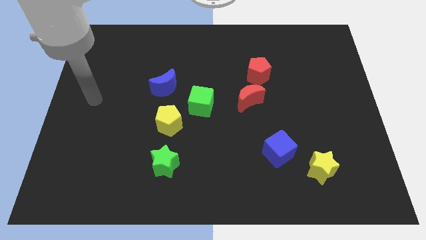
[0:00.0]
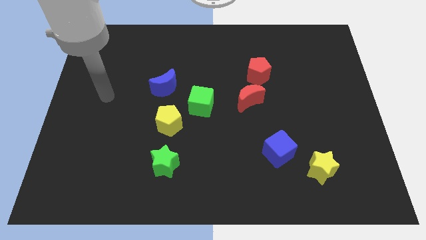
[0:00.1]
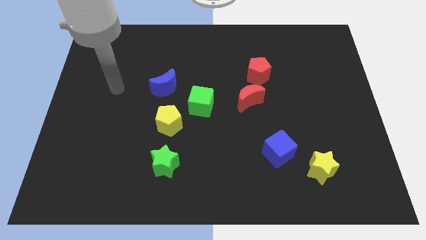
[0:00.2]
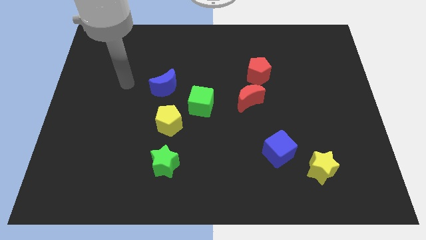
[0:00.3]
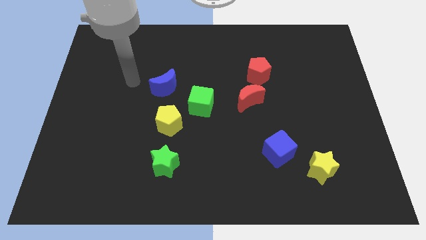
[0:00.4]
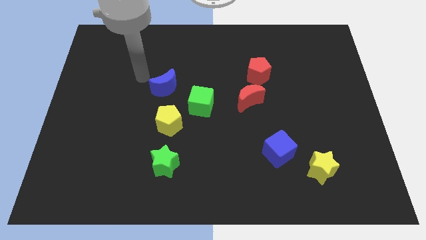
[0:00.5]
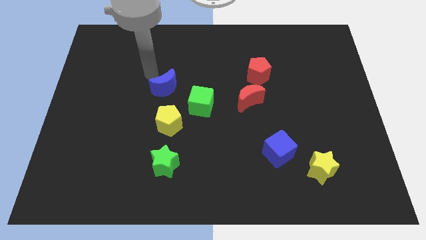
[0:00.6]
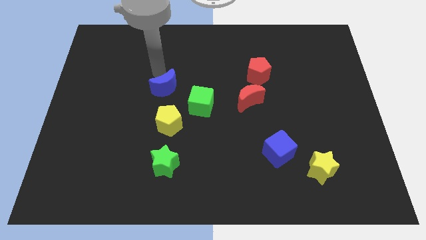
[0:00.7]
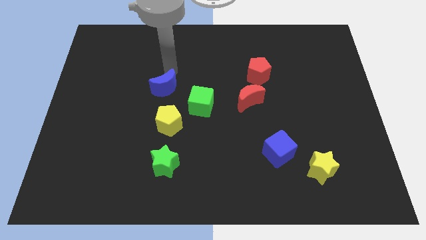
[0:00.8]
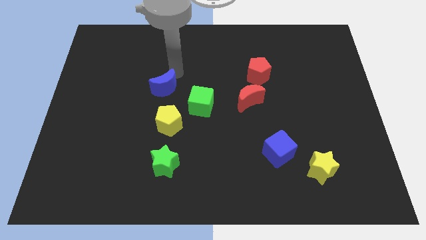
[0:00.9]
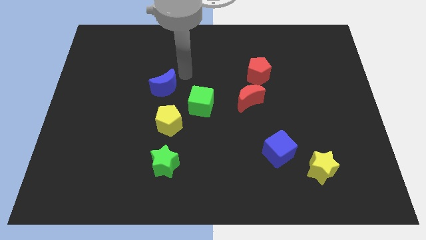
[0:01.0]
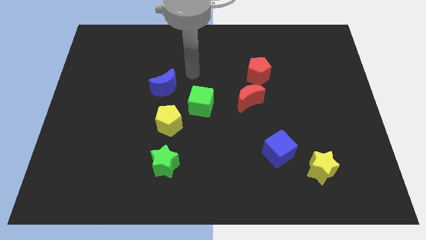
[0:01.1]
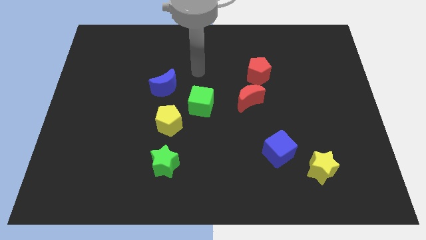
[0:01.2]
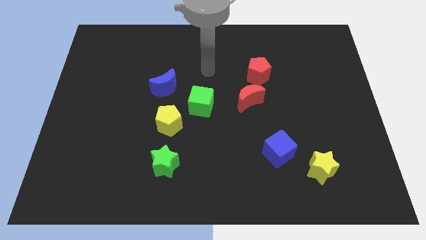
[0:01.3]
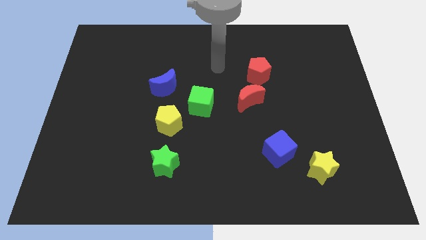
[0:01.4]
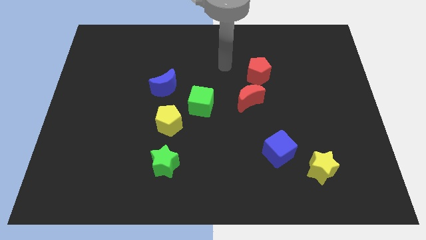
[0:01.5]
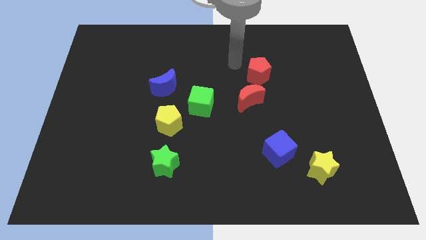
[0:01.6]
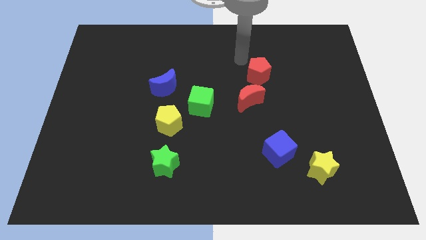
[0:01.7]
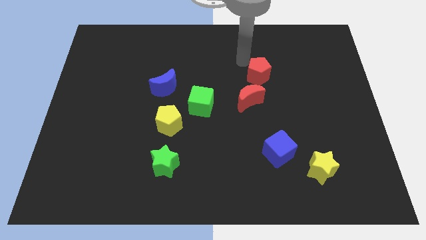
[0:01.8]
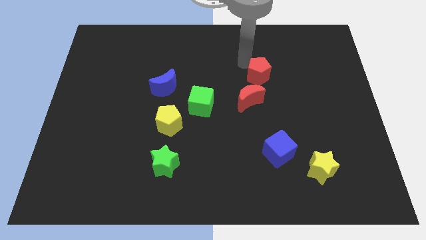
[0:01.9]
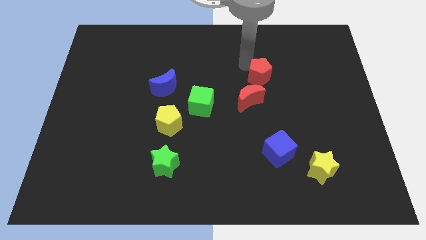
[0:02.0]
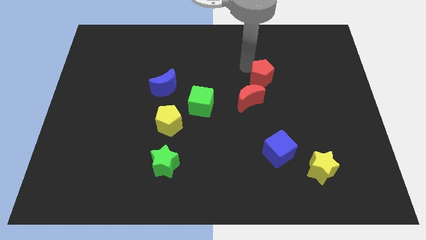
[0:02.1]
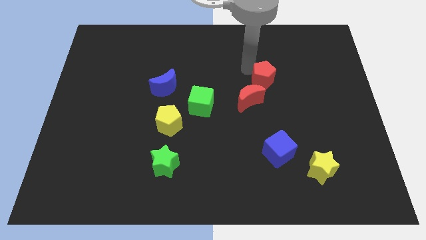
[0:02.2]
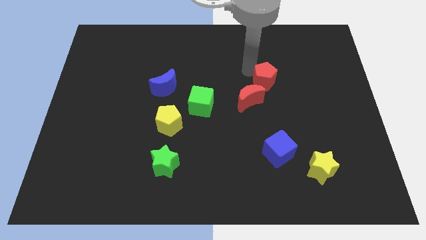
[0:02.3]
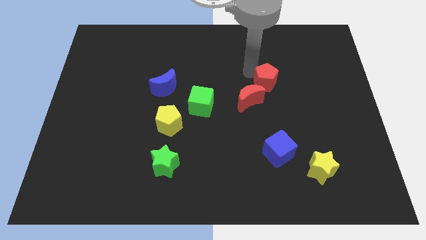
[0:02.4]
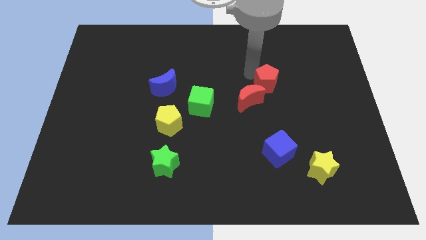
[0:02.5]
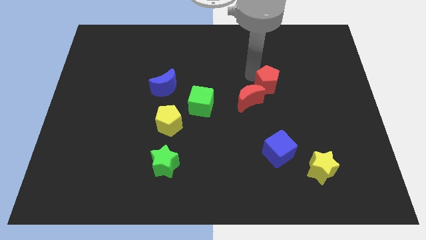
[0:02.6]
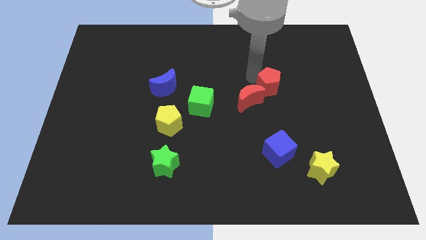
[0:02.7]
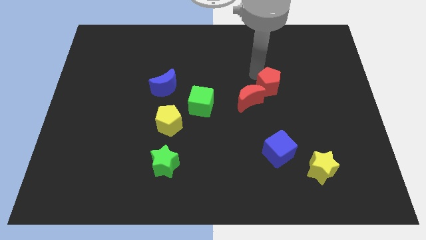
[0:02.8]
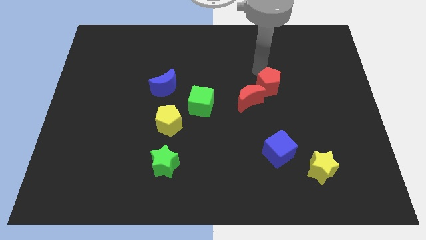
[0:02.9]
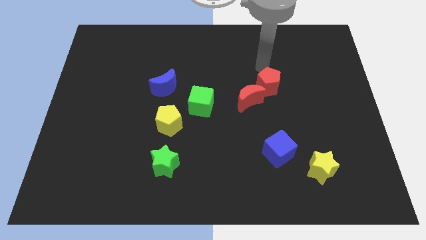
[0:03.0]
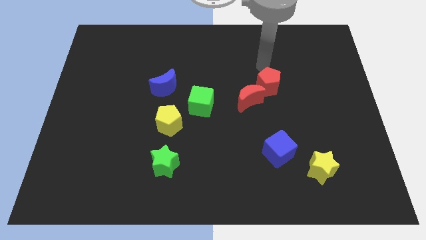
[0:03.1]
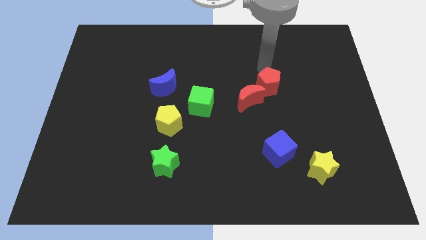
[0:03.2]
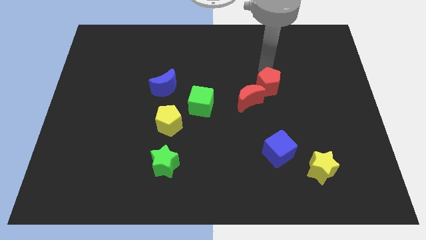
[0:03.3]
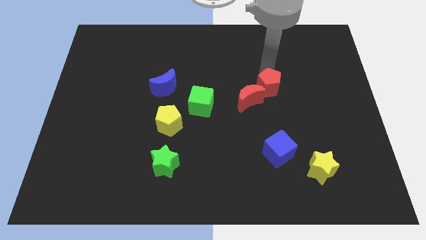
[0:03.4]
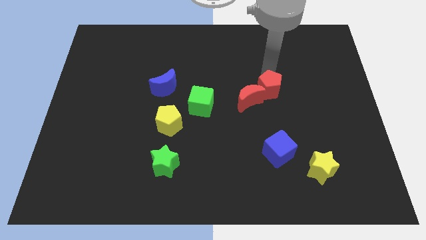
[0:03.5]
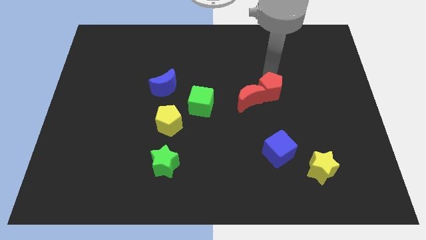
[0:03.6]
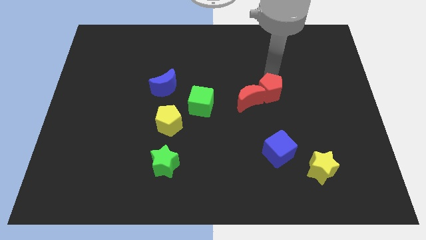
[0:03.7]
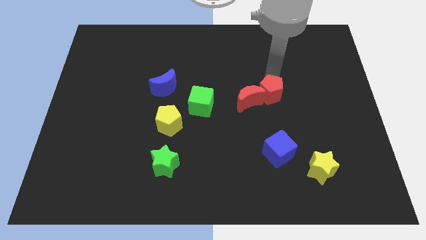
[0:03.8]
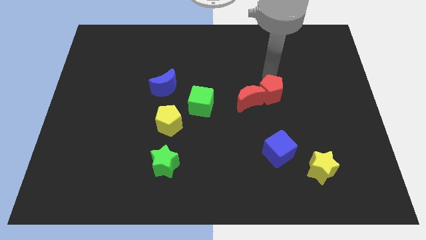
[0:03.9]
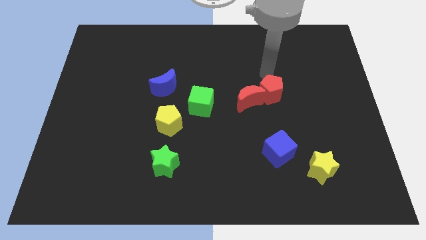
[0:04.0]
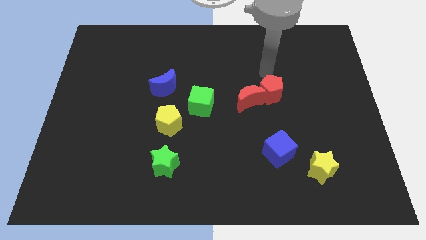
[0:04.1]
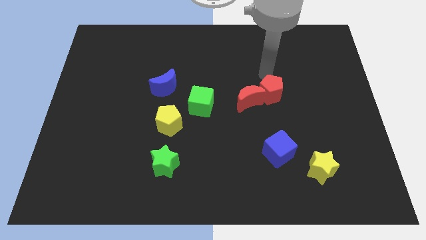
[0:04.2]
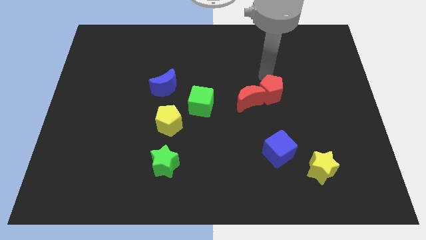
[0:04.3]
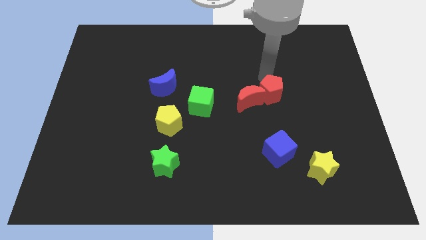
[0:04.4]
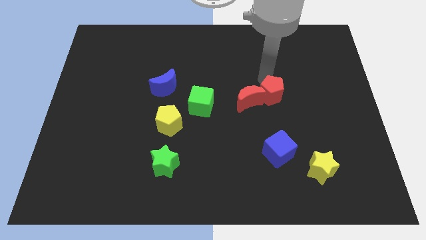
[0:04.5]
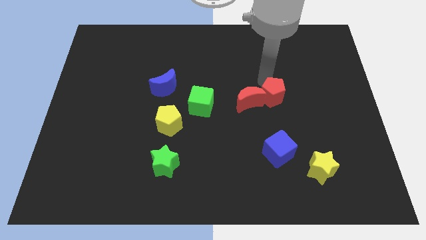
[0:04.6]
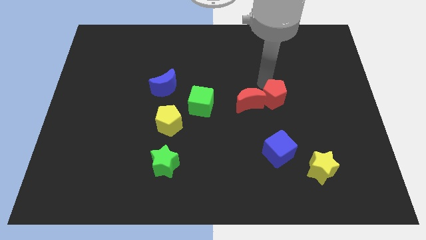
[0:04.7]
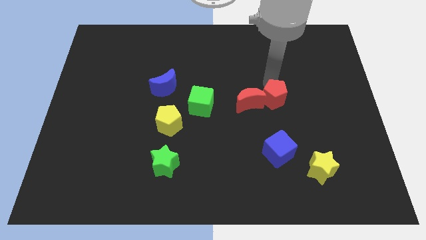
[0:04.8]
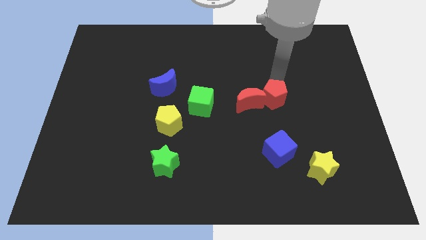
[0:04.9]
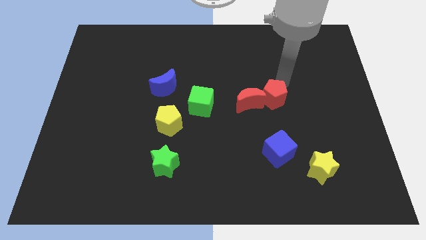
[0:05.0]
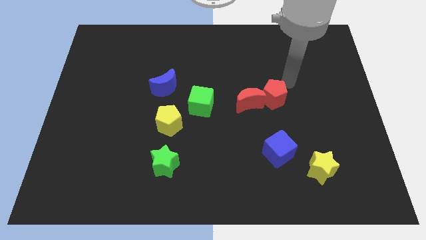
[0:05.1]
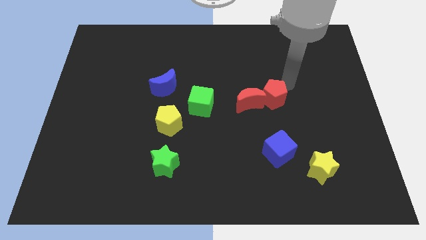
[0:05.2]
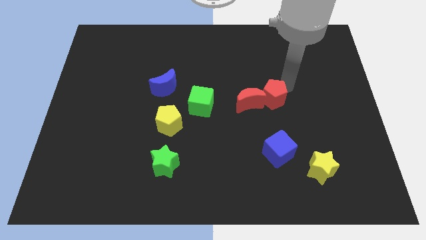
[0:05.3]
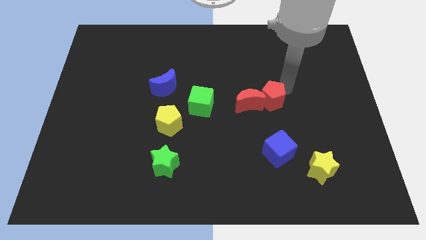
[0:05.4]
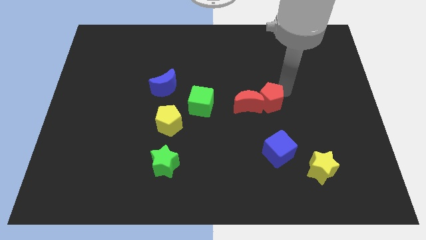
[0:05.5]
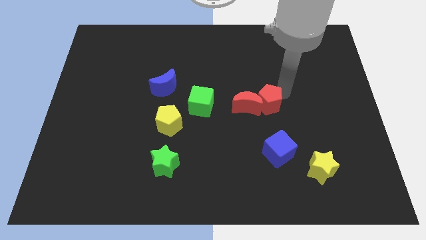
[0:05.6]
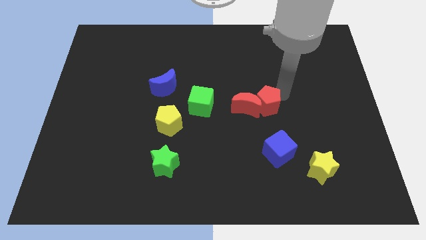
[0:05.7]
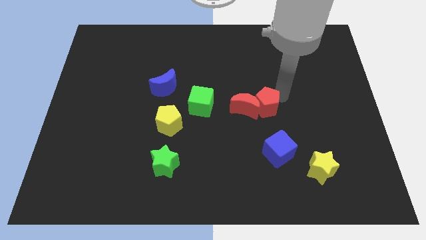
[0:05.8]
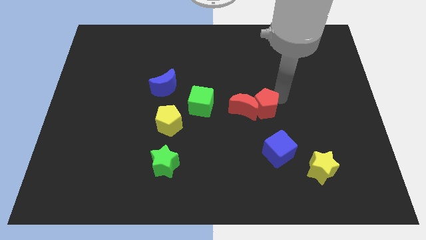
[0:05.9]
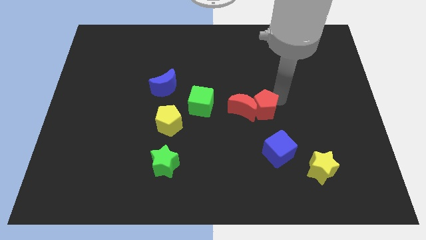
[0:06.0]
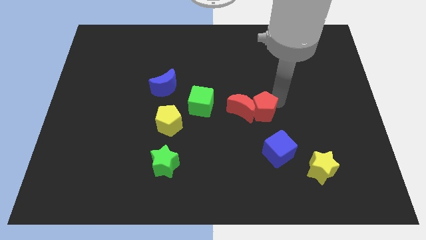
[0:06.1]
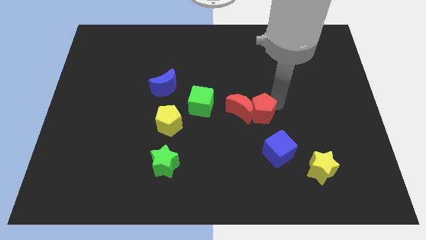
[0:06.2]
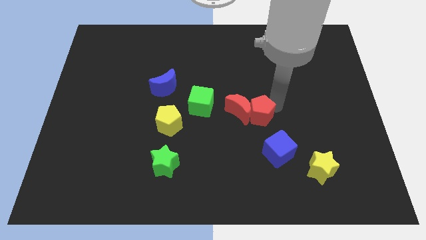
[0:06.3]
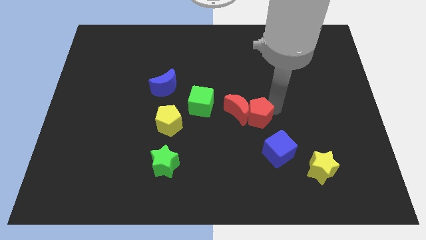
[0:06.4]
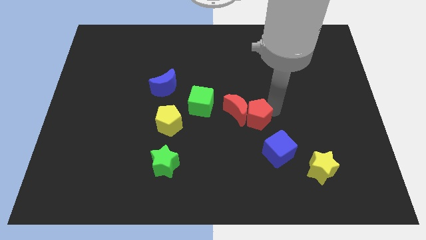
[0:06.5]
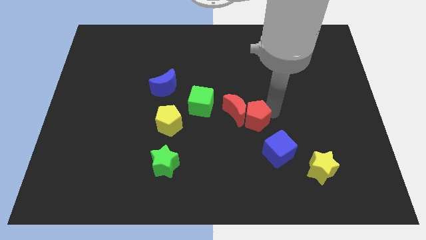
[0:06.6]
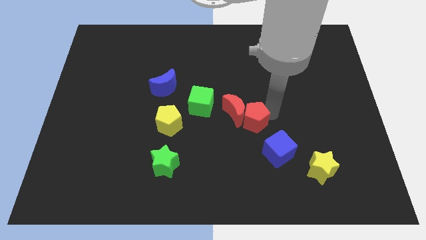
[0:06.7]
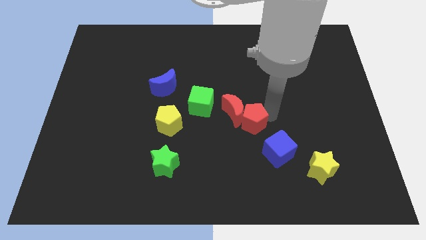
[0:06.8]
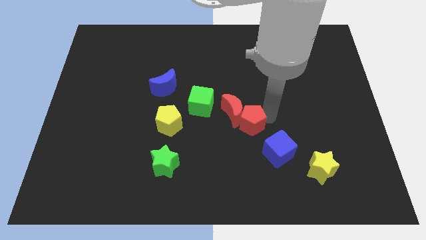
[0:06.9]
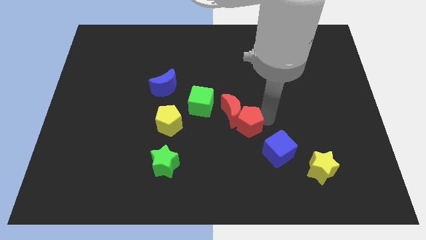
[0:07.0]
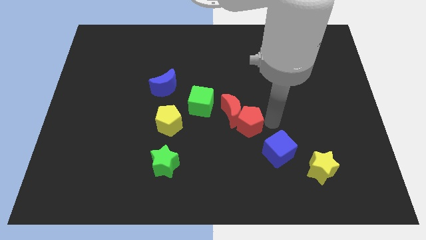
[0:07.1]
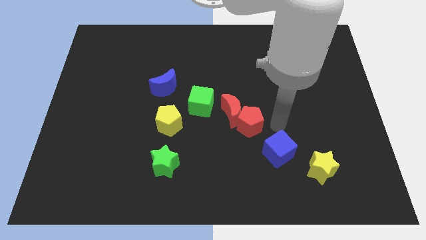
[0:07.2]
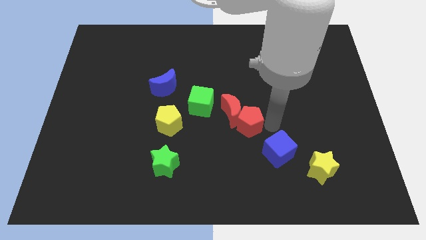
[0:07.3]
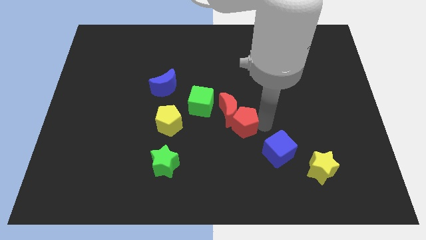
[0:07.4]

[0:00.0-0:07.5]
put the red pentagon diagonally down and to the right of the green cube

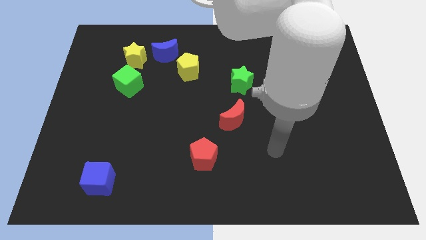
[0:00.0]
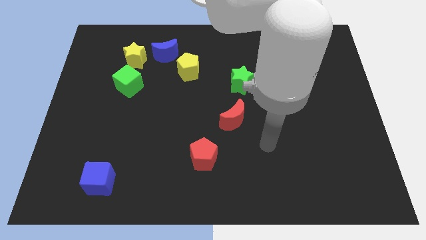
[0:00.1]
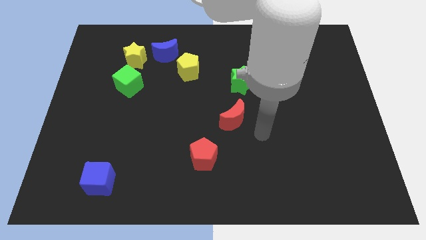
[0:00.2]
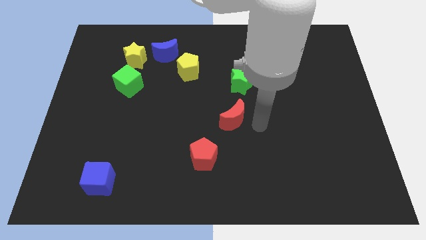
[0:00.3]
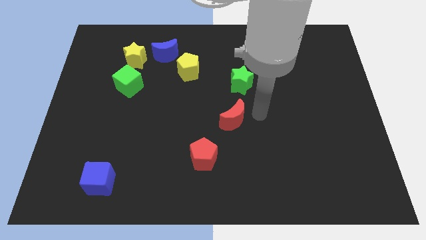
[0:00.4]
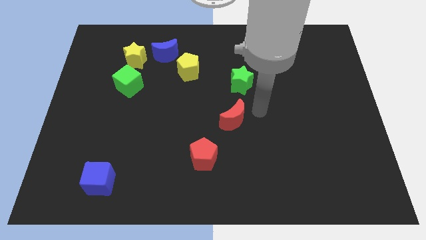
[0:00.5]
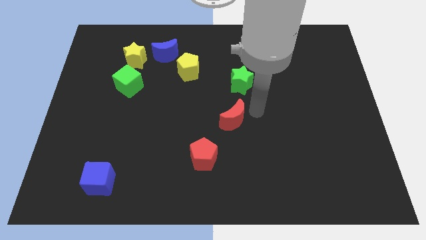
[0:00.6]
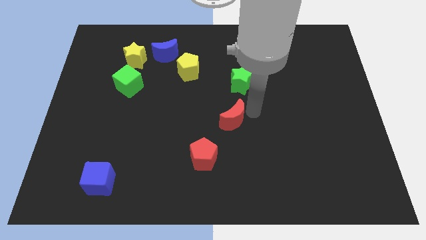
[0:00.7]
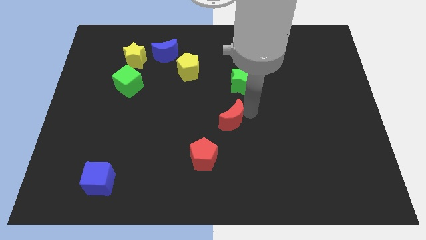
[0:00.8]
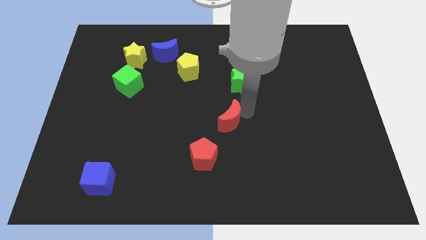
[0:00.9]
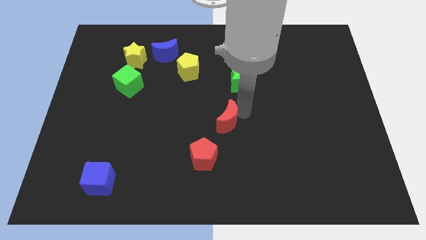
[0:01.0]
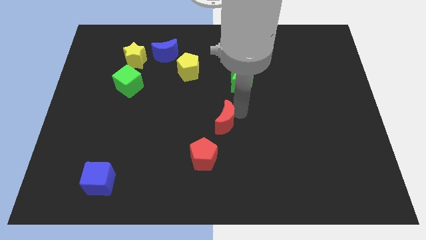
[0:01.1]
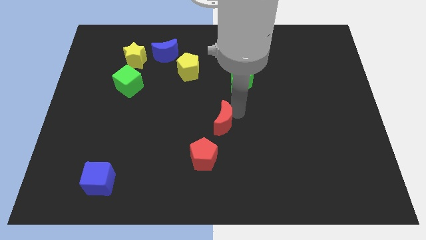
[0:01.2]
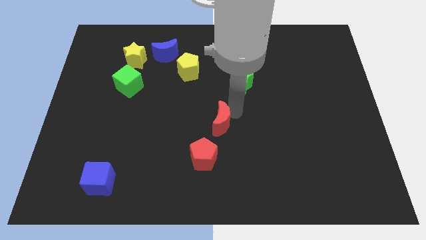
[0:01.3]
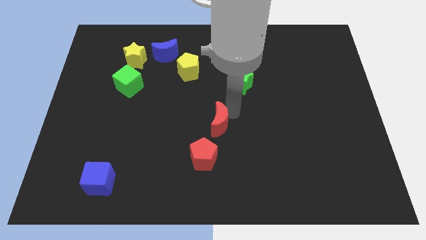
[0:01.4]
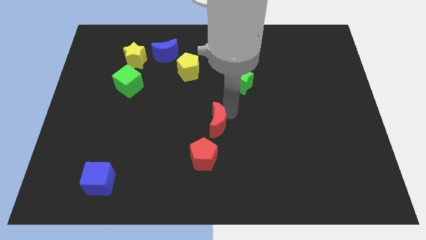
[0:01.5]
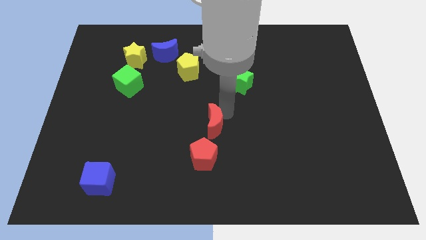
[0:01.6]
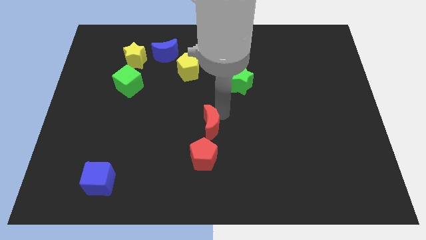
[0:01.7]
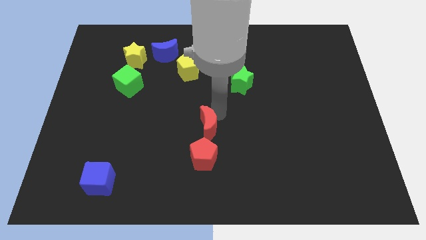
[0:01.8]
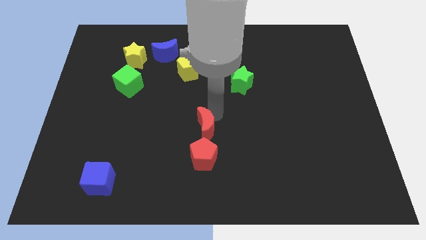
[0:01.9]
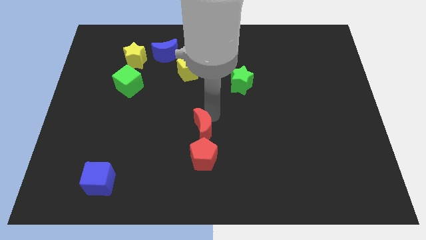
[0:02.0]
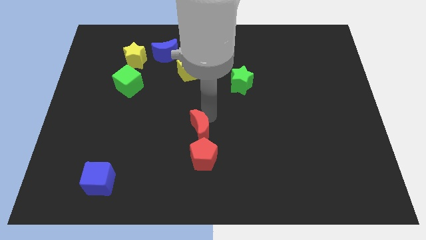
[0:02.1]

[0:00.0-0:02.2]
put the red moon to the top left side of the red pentagon
